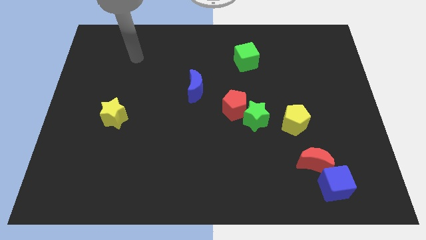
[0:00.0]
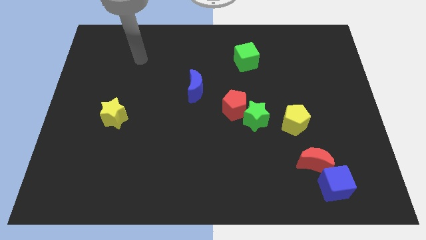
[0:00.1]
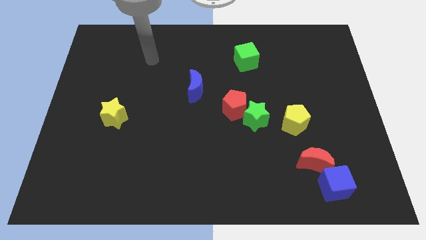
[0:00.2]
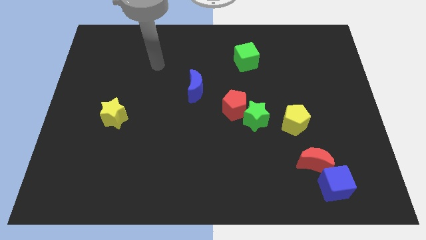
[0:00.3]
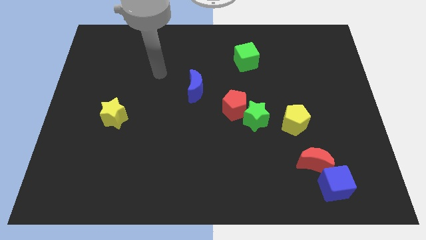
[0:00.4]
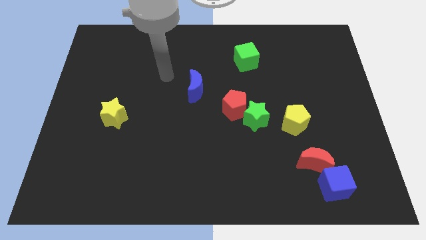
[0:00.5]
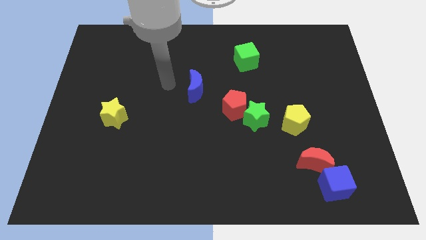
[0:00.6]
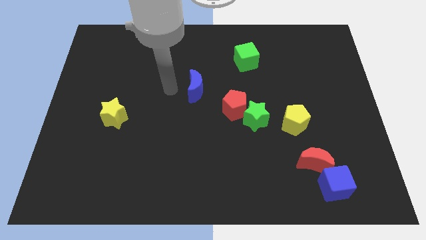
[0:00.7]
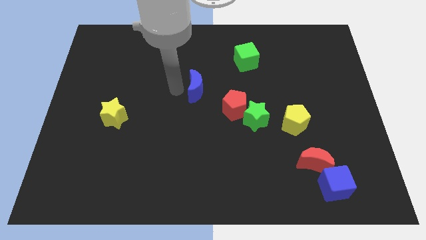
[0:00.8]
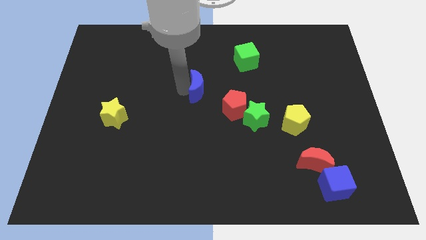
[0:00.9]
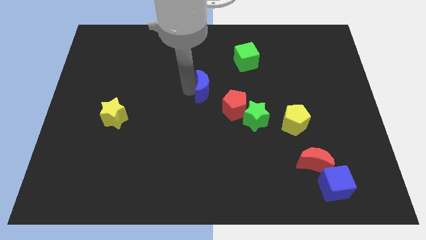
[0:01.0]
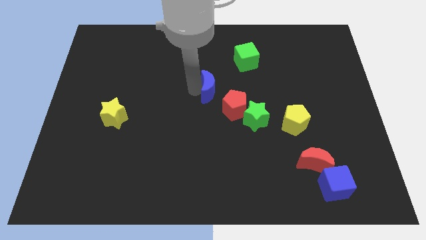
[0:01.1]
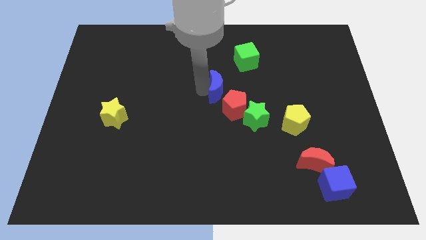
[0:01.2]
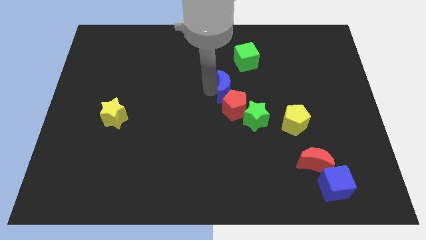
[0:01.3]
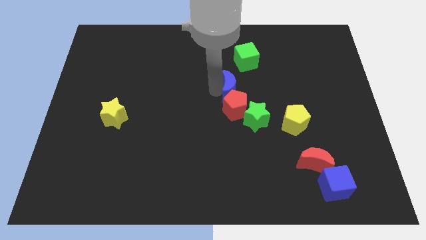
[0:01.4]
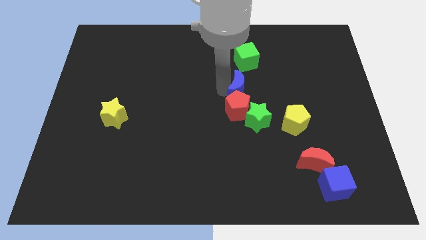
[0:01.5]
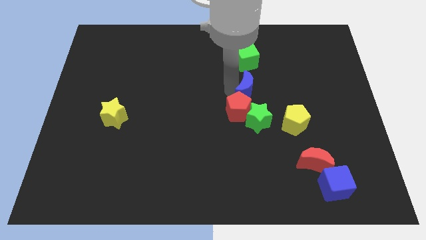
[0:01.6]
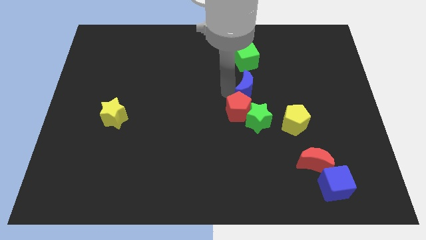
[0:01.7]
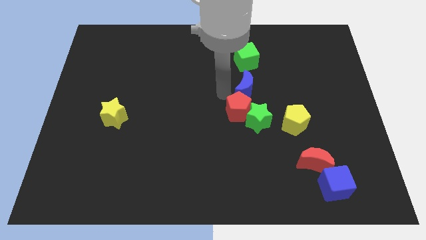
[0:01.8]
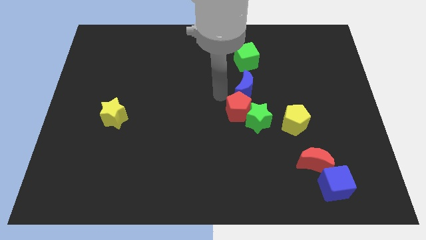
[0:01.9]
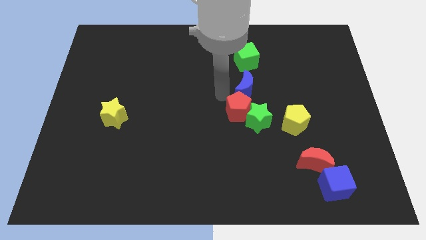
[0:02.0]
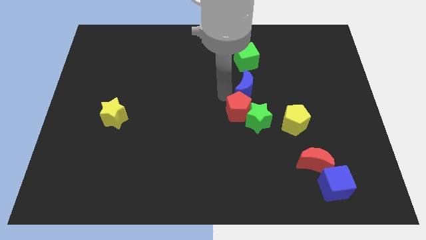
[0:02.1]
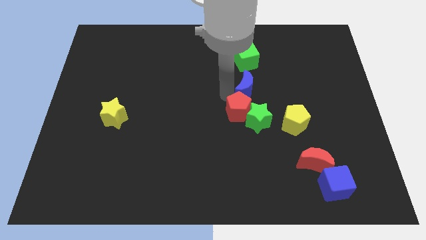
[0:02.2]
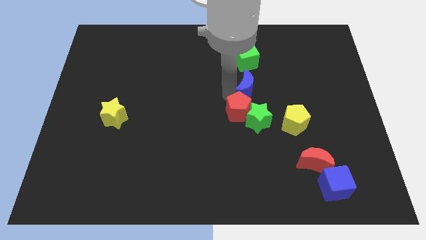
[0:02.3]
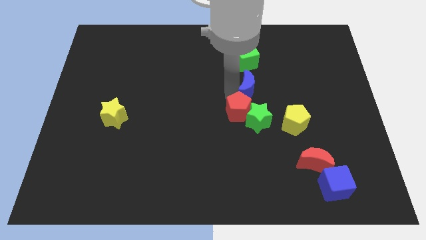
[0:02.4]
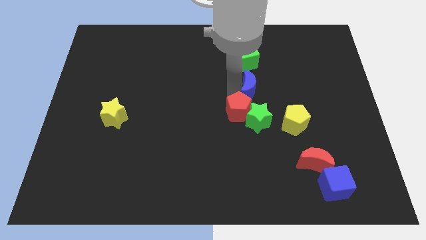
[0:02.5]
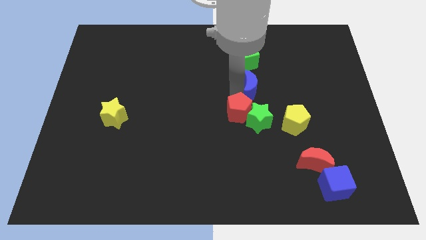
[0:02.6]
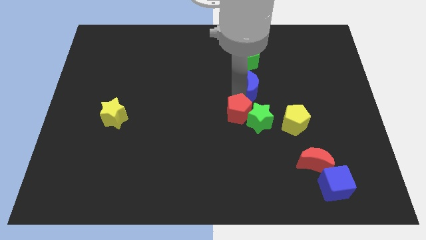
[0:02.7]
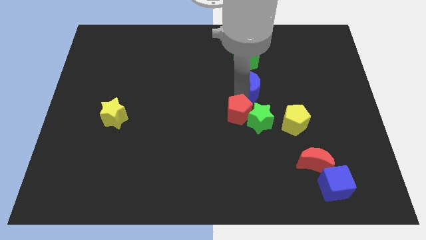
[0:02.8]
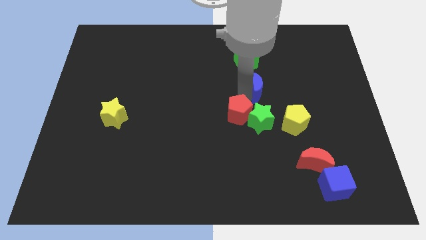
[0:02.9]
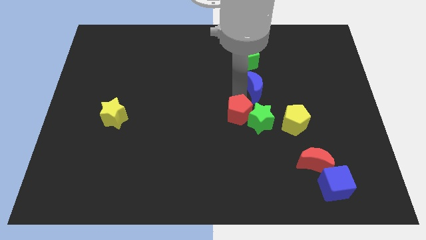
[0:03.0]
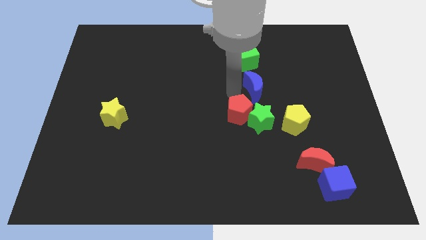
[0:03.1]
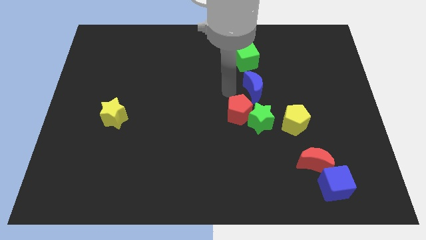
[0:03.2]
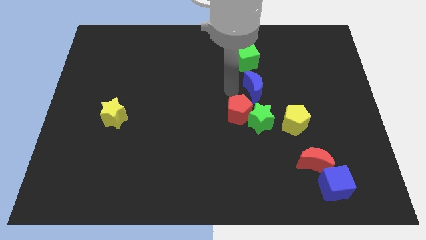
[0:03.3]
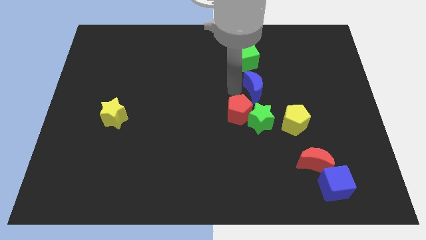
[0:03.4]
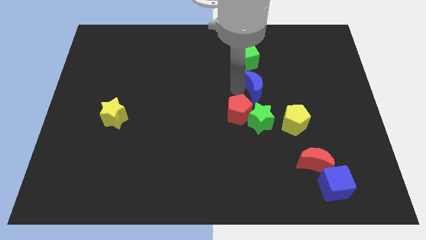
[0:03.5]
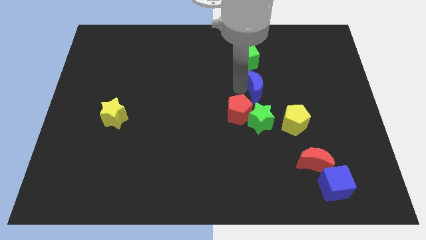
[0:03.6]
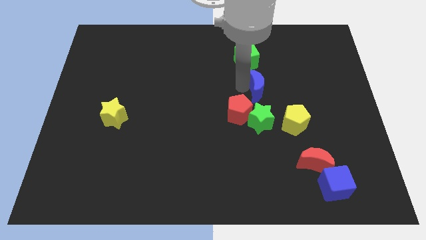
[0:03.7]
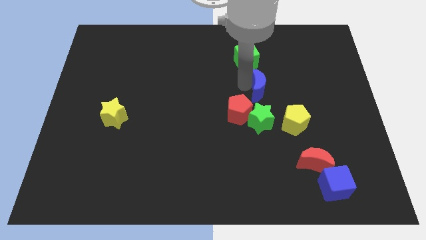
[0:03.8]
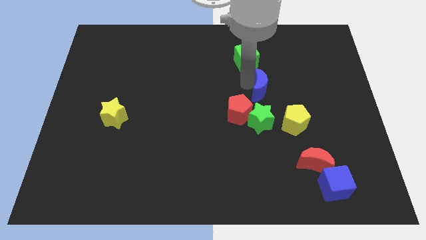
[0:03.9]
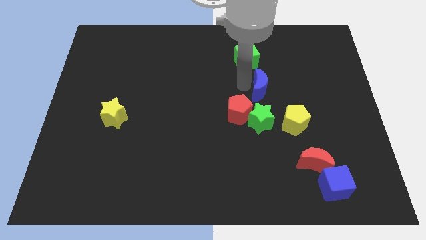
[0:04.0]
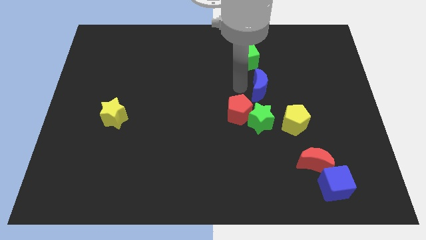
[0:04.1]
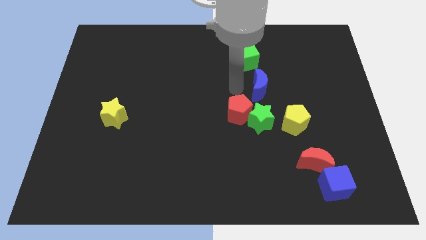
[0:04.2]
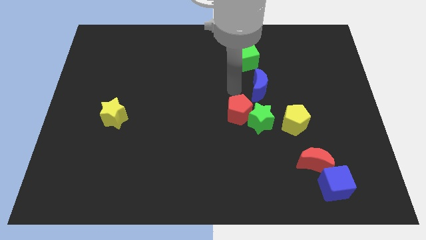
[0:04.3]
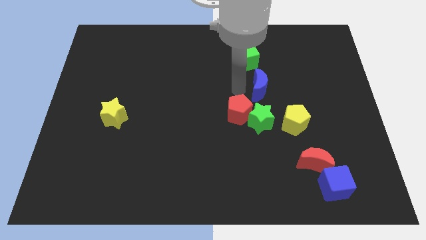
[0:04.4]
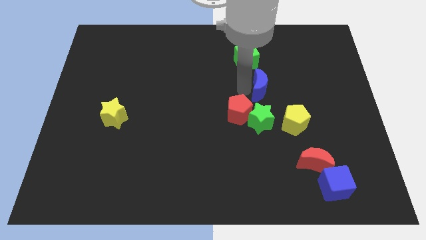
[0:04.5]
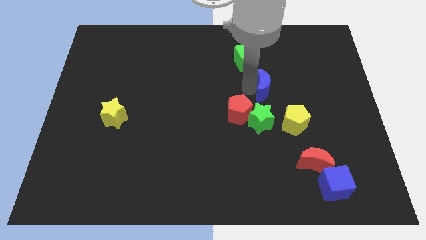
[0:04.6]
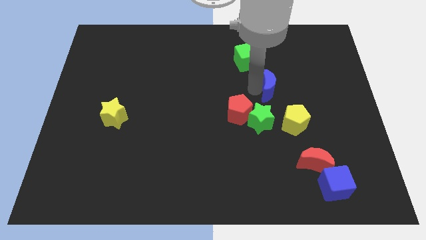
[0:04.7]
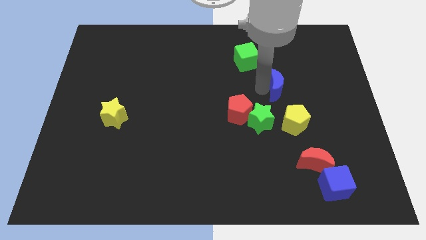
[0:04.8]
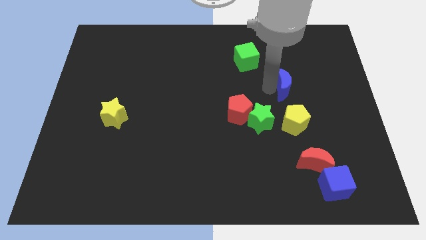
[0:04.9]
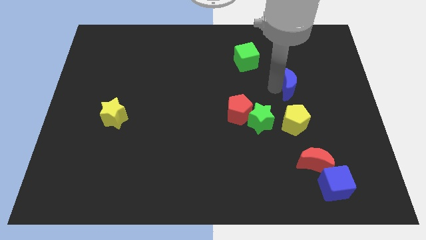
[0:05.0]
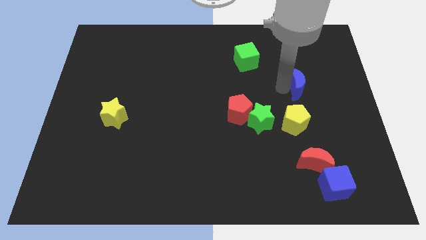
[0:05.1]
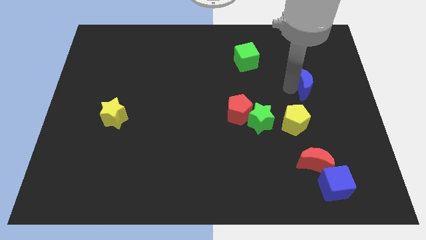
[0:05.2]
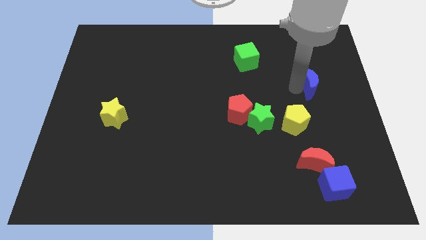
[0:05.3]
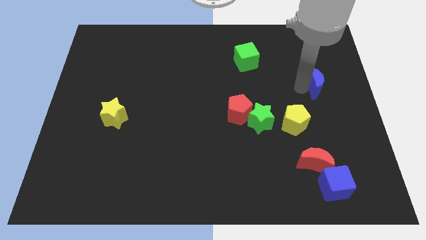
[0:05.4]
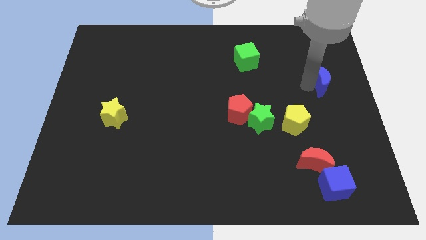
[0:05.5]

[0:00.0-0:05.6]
put the blue moon to the center right

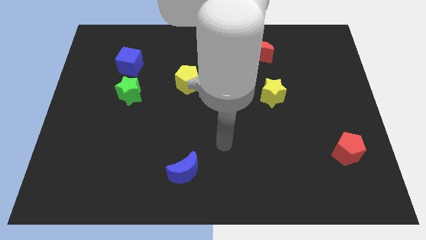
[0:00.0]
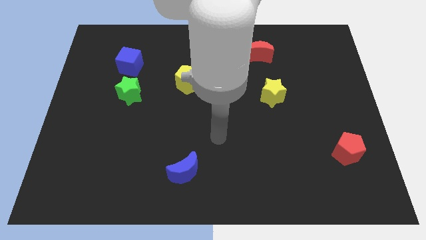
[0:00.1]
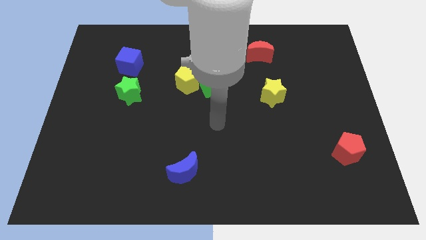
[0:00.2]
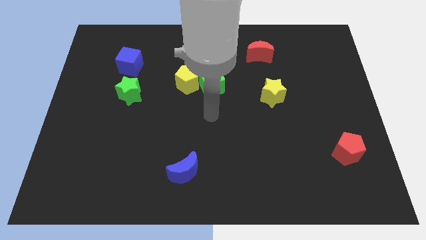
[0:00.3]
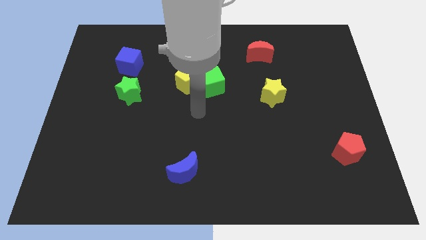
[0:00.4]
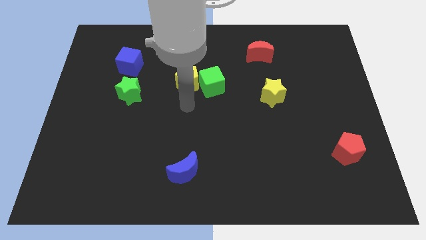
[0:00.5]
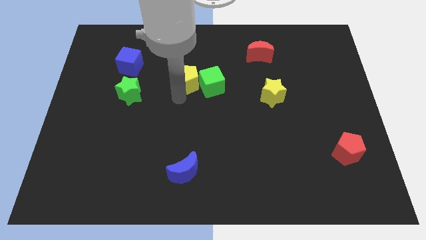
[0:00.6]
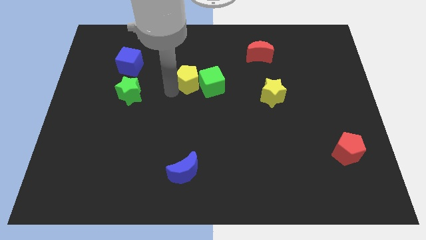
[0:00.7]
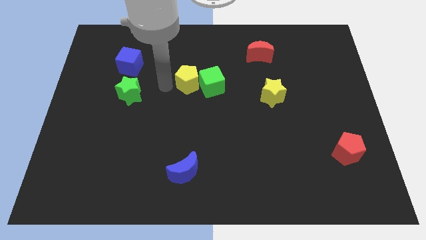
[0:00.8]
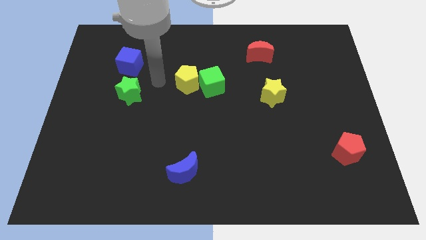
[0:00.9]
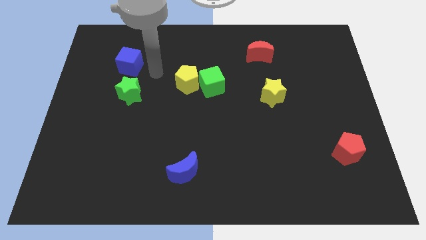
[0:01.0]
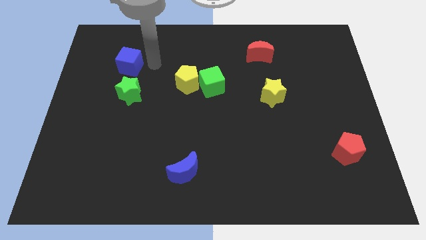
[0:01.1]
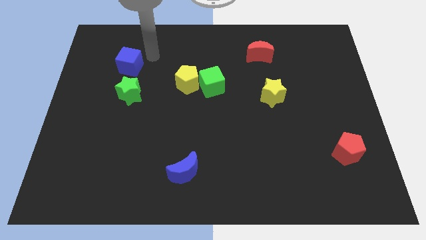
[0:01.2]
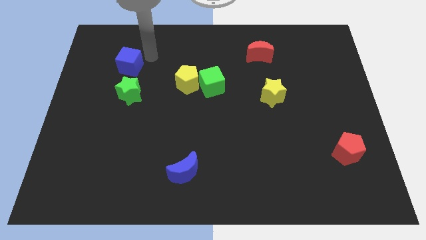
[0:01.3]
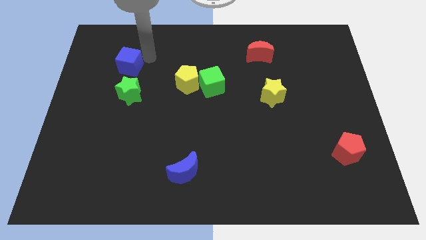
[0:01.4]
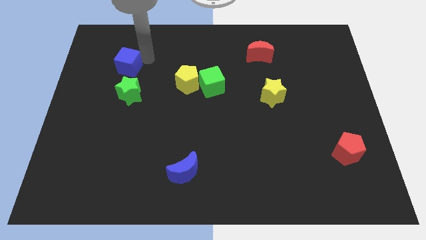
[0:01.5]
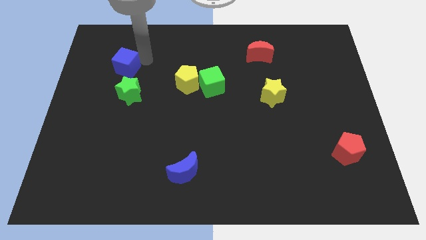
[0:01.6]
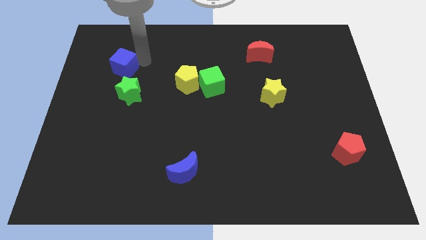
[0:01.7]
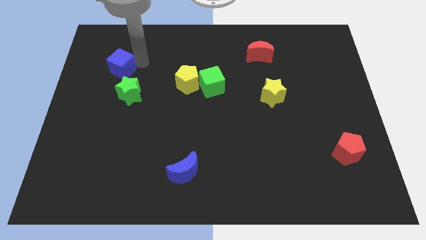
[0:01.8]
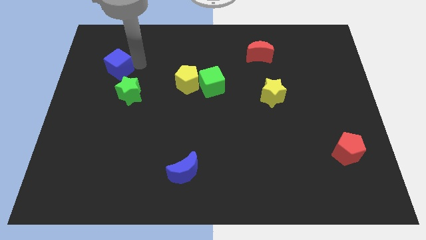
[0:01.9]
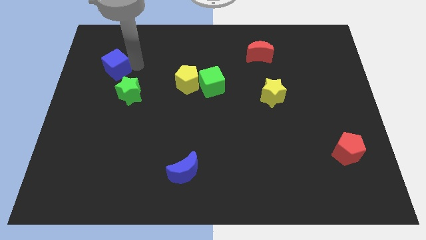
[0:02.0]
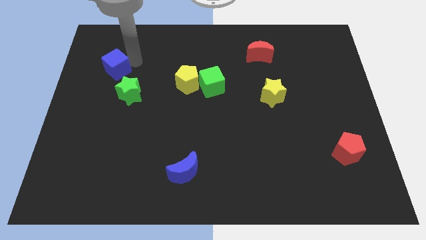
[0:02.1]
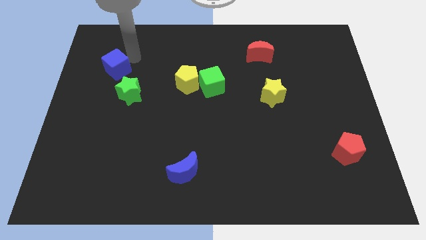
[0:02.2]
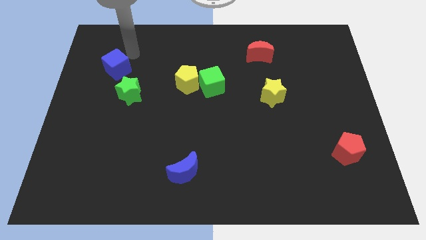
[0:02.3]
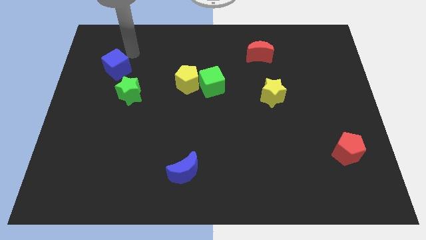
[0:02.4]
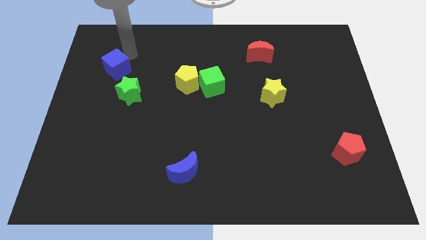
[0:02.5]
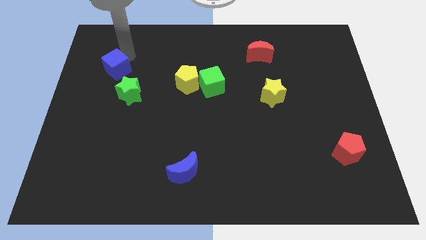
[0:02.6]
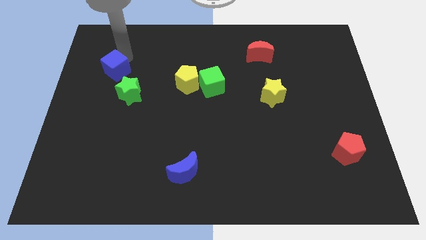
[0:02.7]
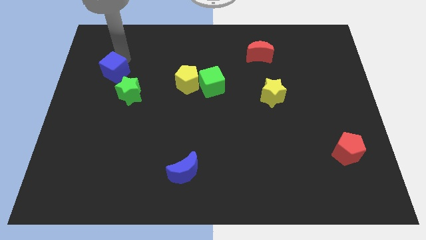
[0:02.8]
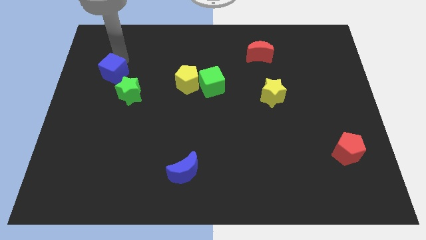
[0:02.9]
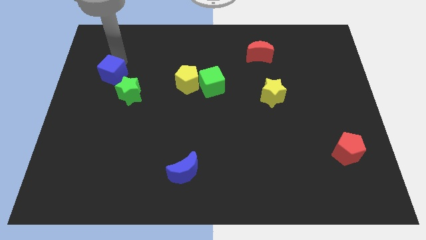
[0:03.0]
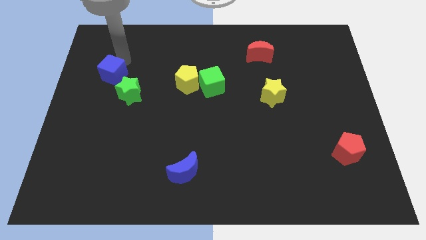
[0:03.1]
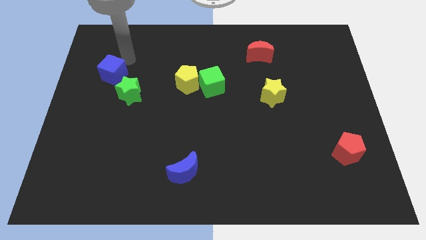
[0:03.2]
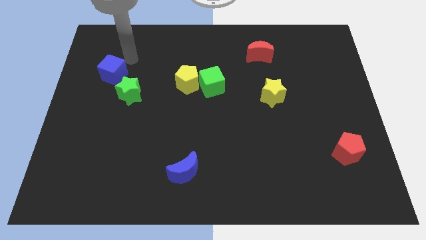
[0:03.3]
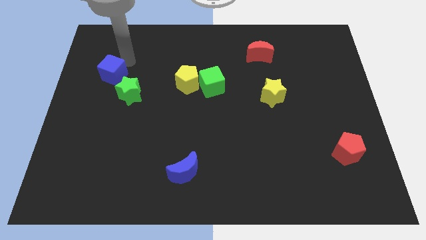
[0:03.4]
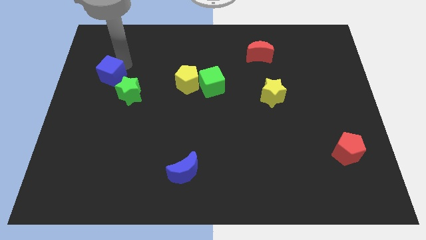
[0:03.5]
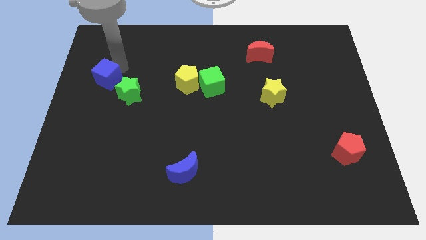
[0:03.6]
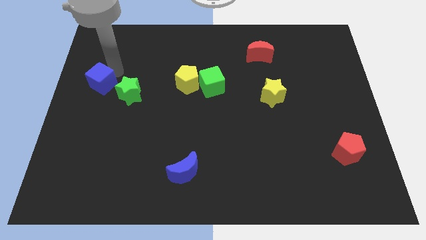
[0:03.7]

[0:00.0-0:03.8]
move the blue cube to the center left
